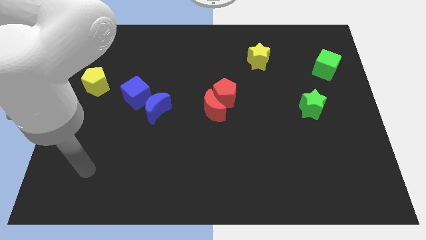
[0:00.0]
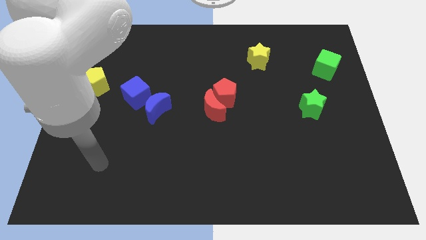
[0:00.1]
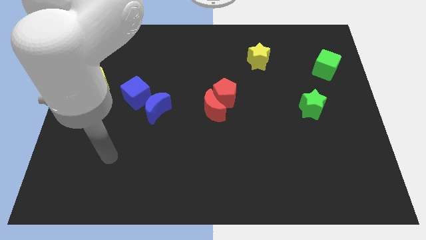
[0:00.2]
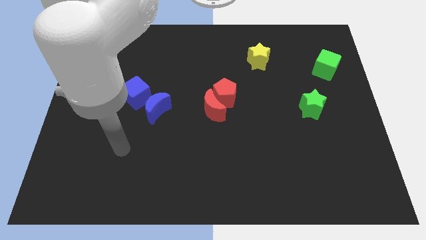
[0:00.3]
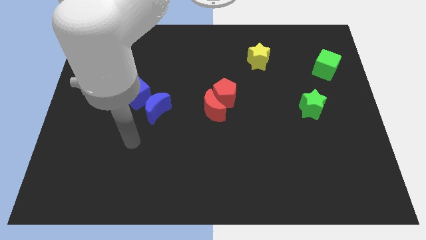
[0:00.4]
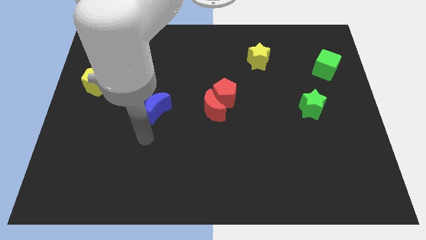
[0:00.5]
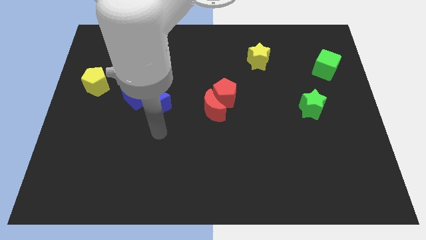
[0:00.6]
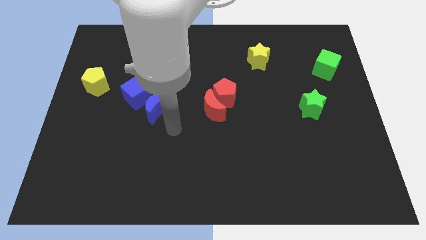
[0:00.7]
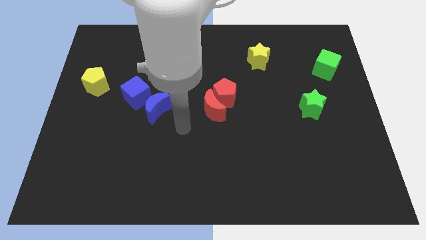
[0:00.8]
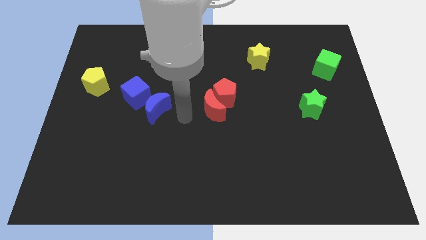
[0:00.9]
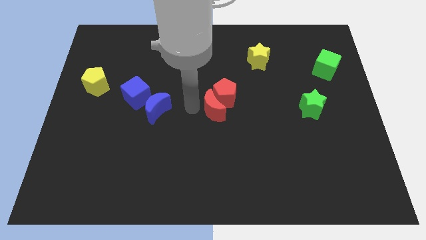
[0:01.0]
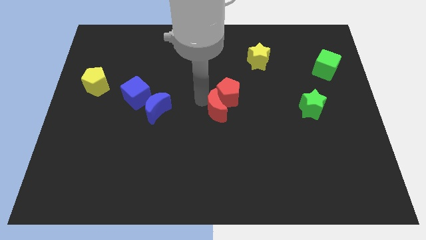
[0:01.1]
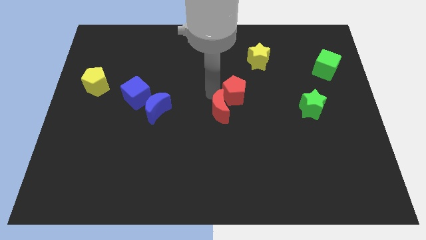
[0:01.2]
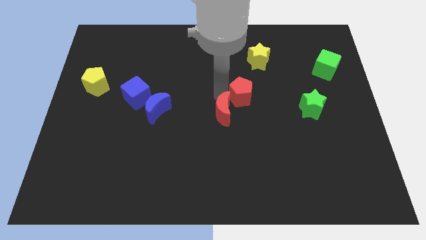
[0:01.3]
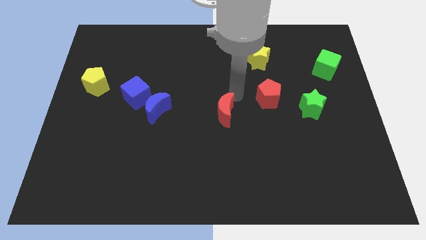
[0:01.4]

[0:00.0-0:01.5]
separate the red moon from the red pentagon

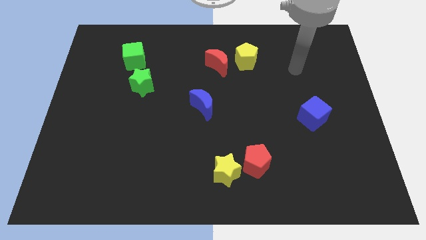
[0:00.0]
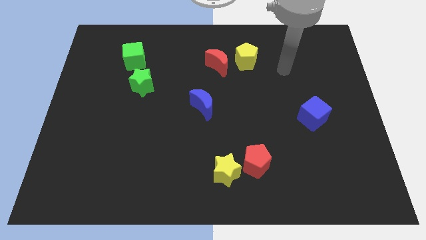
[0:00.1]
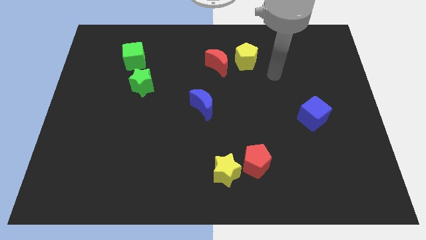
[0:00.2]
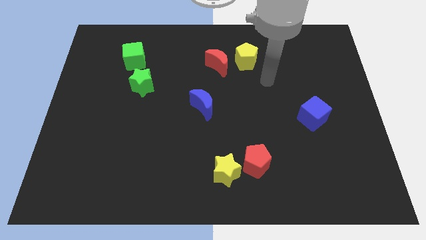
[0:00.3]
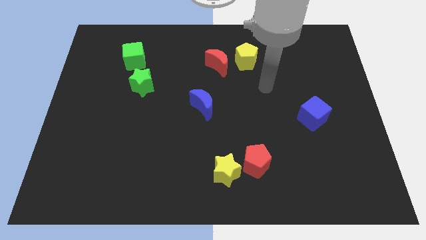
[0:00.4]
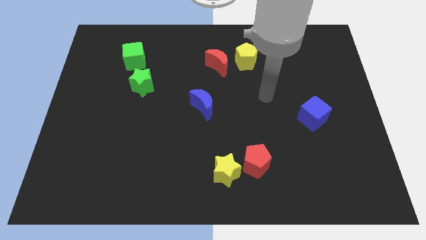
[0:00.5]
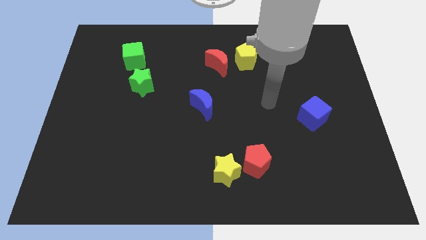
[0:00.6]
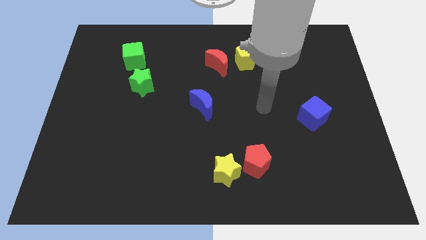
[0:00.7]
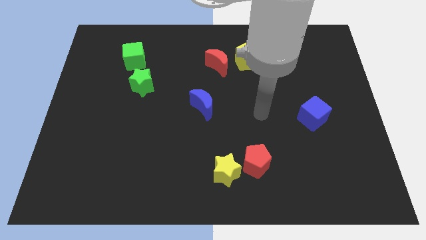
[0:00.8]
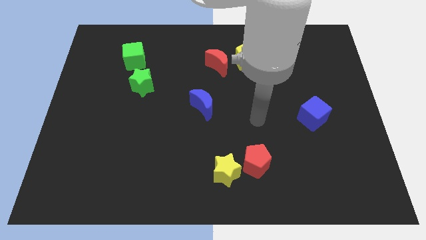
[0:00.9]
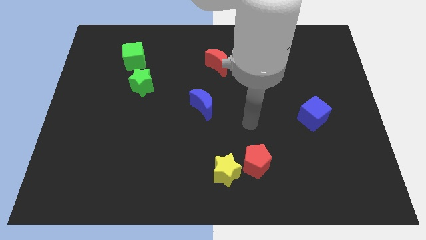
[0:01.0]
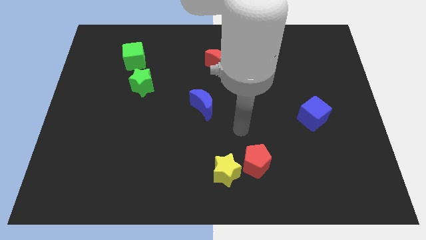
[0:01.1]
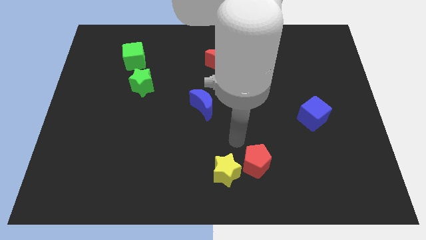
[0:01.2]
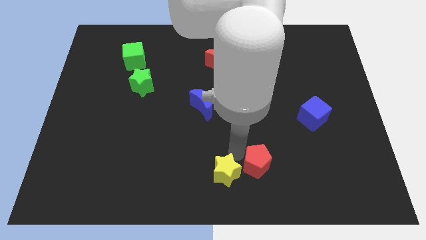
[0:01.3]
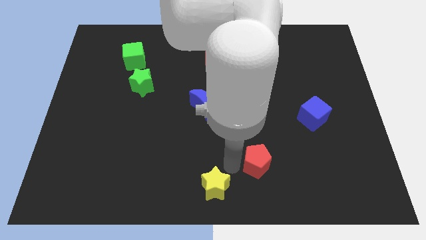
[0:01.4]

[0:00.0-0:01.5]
move the red pentagon away from the yellow star

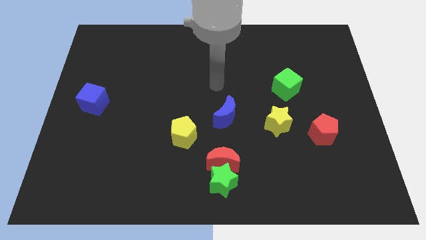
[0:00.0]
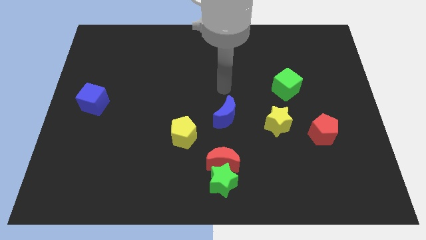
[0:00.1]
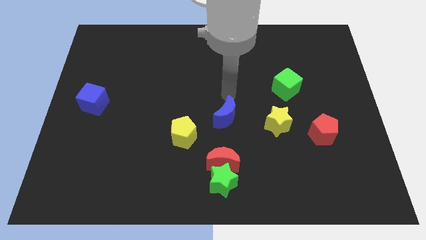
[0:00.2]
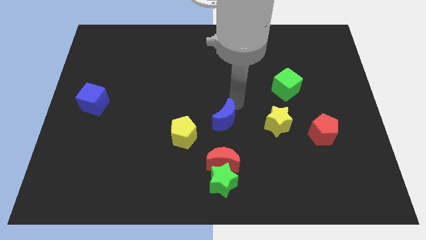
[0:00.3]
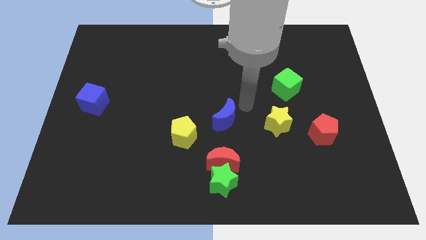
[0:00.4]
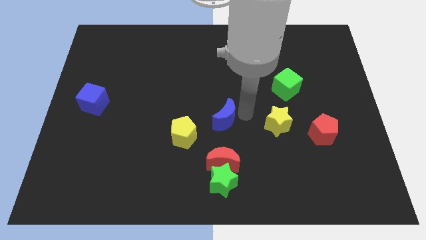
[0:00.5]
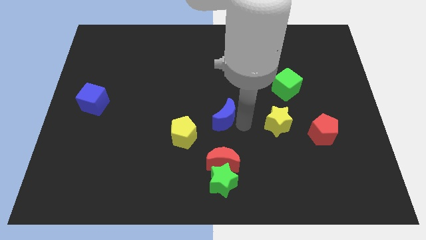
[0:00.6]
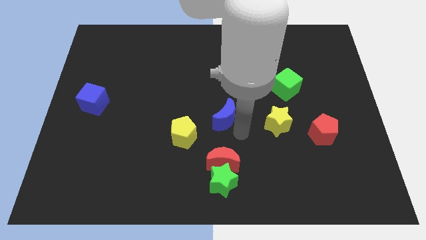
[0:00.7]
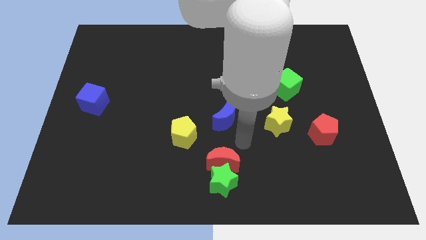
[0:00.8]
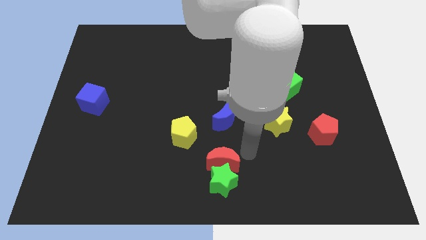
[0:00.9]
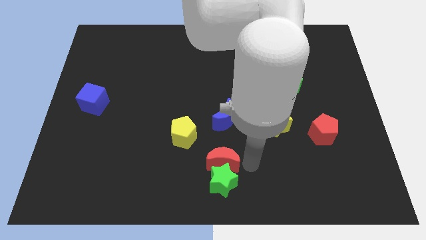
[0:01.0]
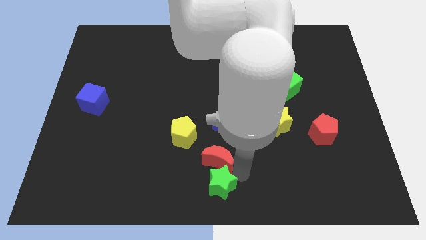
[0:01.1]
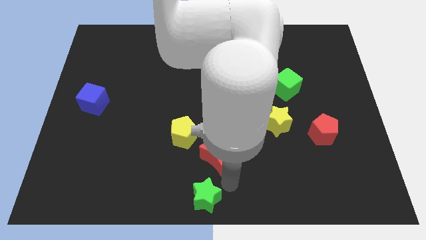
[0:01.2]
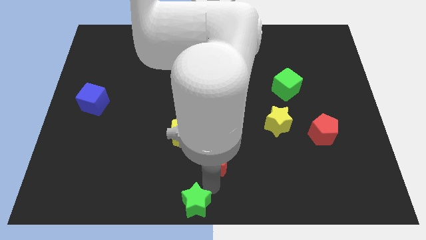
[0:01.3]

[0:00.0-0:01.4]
pull the red moon apart from the green star

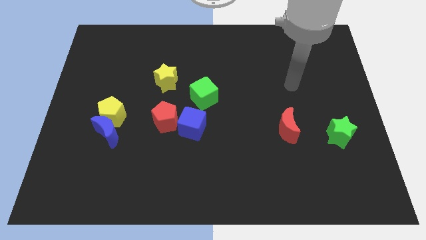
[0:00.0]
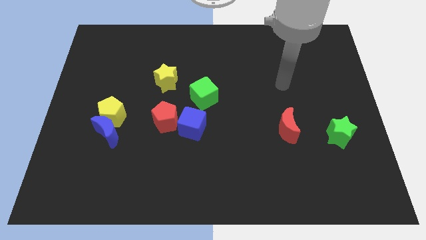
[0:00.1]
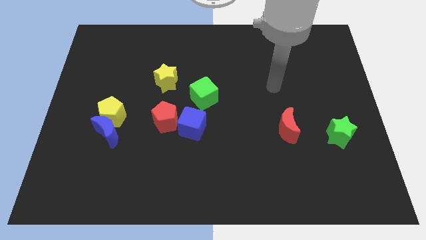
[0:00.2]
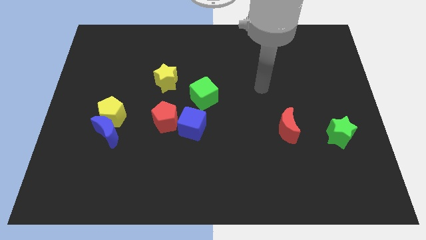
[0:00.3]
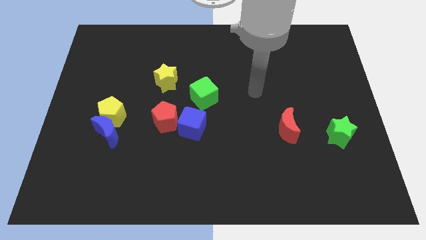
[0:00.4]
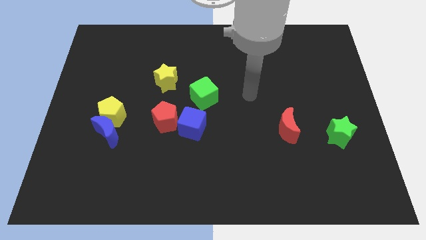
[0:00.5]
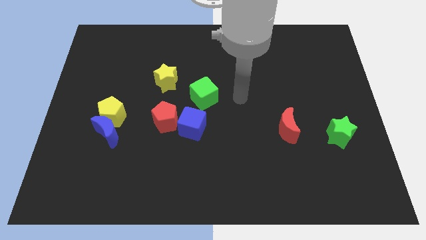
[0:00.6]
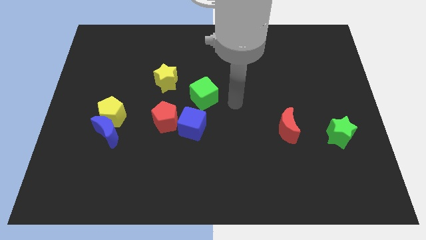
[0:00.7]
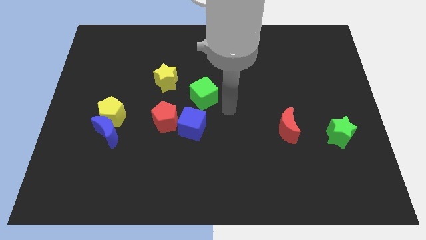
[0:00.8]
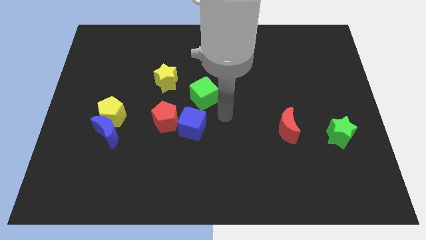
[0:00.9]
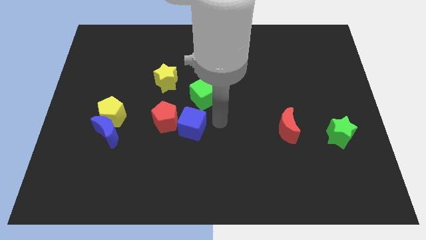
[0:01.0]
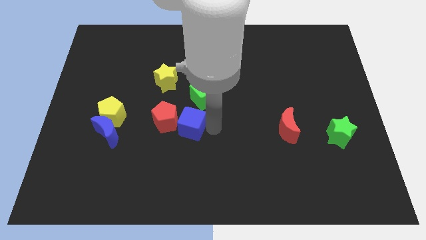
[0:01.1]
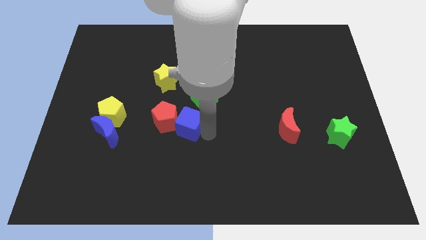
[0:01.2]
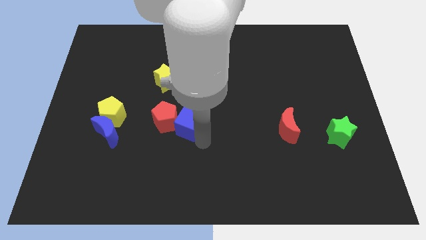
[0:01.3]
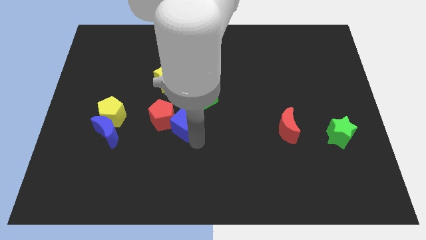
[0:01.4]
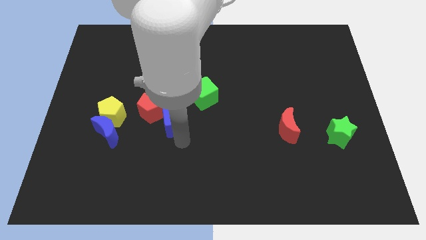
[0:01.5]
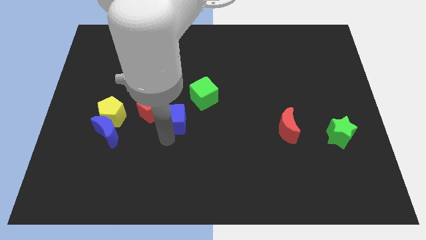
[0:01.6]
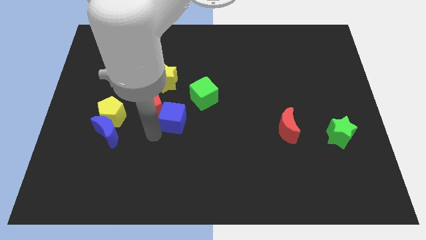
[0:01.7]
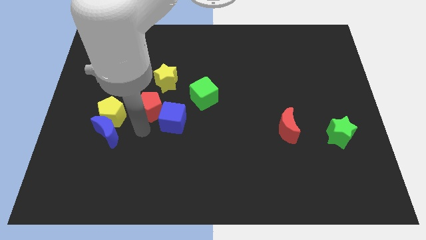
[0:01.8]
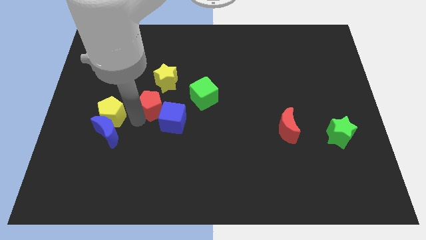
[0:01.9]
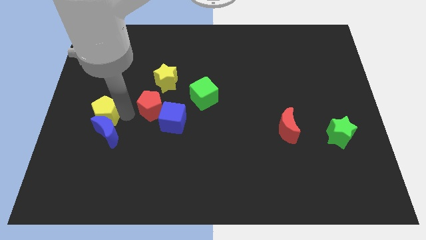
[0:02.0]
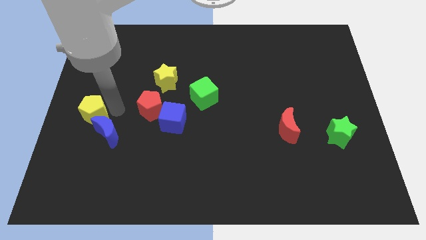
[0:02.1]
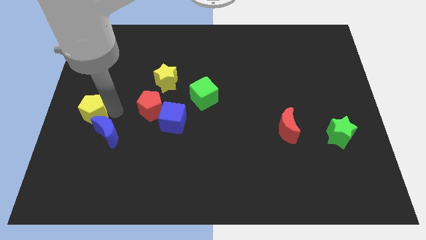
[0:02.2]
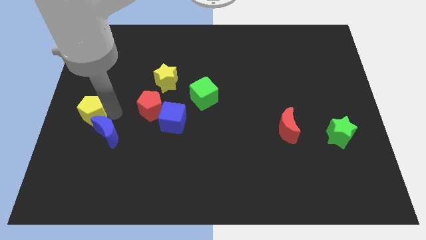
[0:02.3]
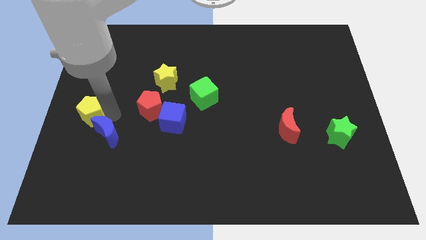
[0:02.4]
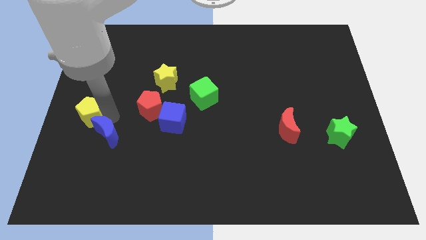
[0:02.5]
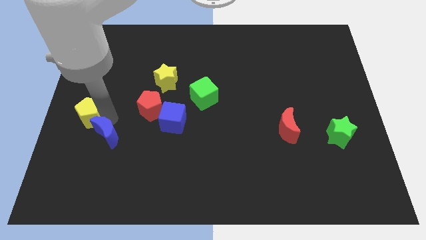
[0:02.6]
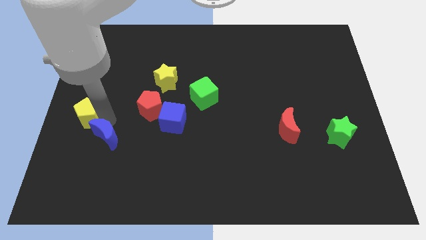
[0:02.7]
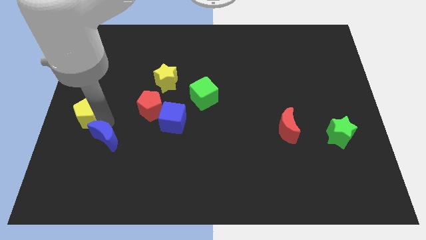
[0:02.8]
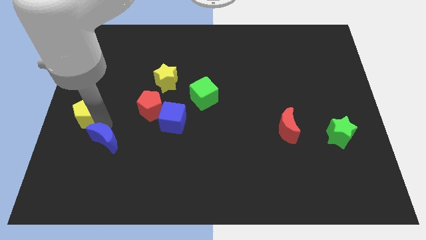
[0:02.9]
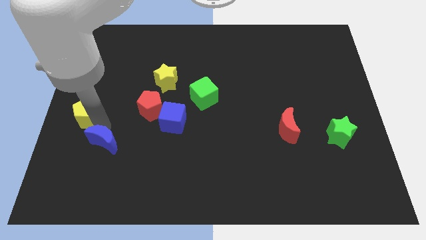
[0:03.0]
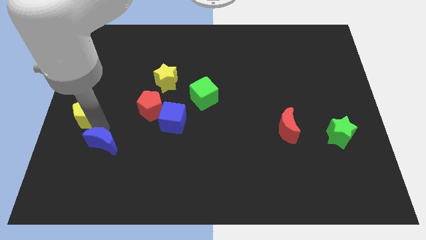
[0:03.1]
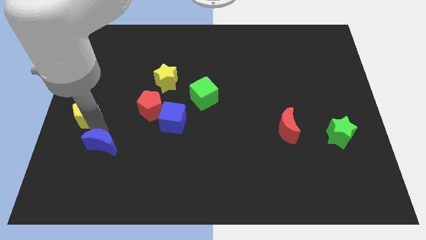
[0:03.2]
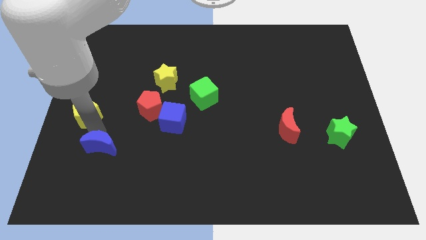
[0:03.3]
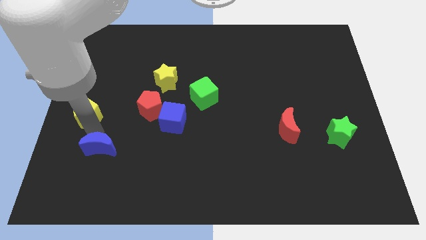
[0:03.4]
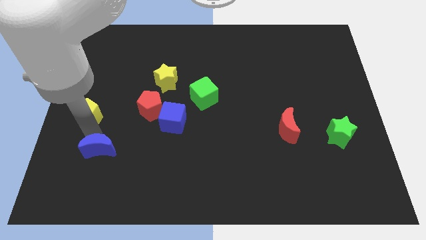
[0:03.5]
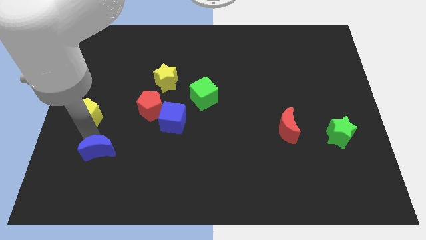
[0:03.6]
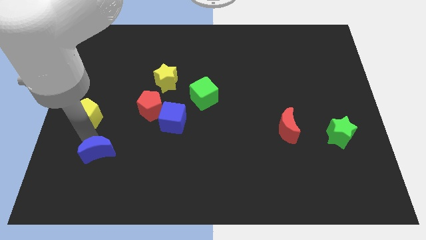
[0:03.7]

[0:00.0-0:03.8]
pull the blue moon apart from the yellow pentagon

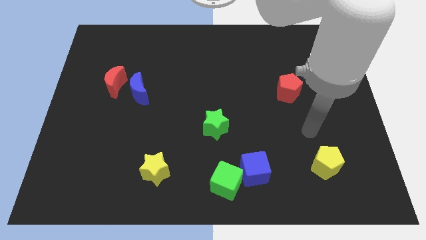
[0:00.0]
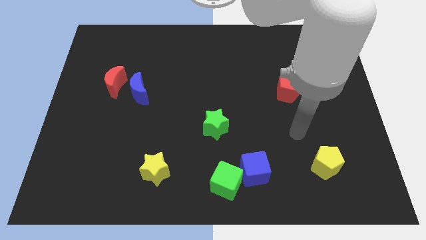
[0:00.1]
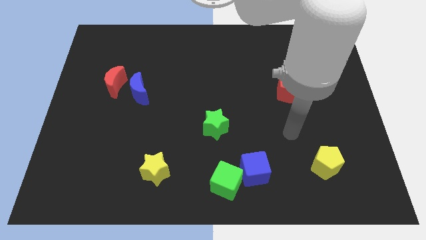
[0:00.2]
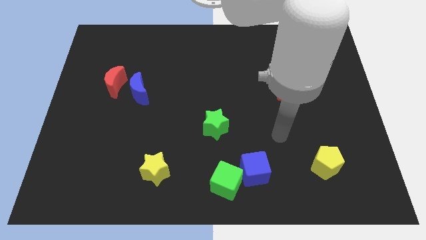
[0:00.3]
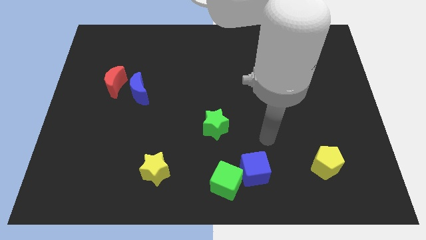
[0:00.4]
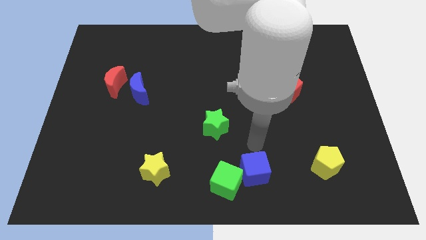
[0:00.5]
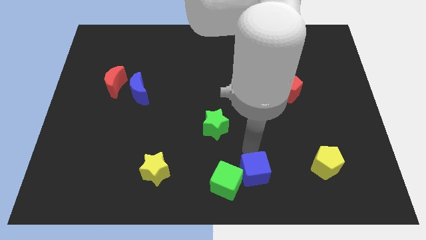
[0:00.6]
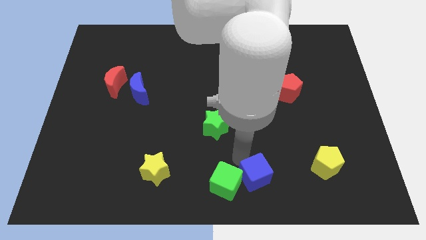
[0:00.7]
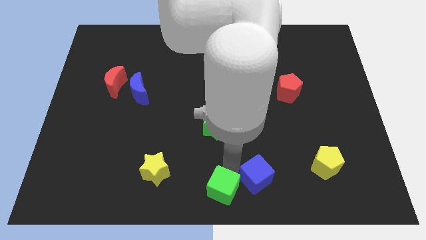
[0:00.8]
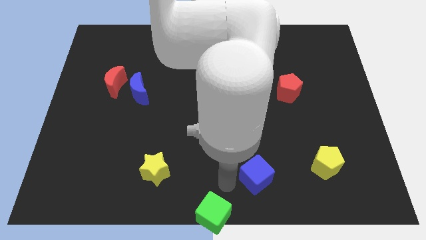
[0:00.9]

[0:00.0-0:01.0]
pull the blue cube apart from the green cube

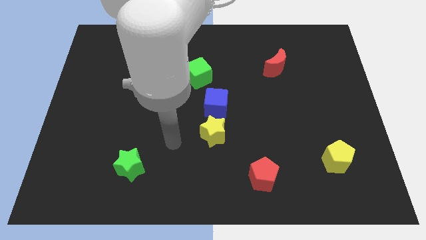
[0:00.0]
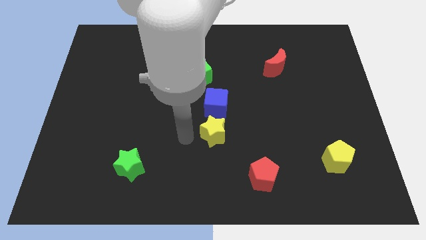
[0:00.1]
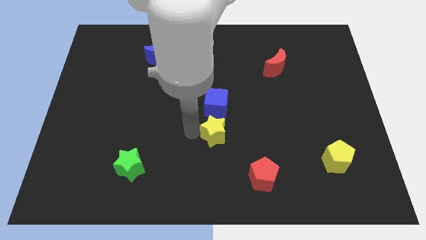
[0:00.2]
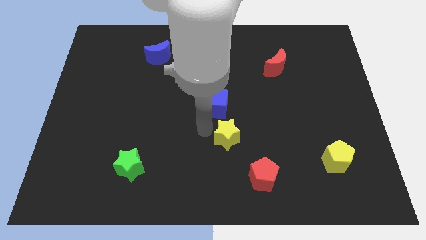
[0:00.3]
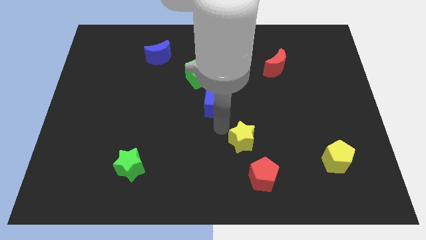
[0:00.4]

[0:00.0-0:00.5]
separate the blue cube from the yellow star
